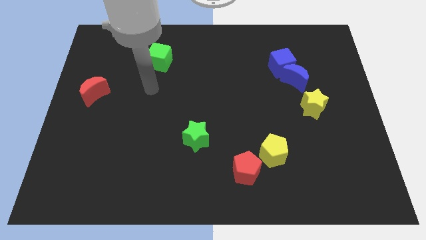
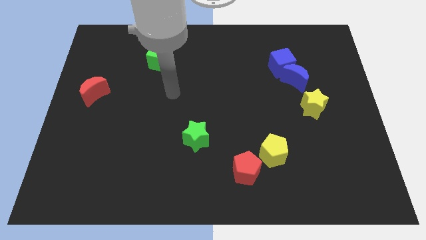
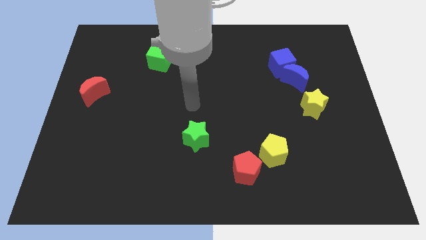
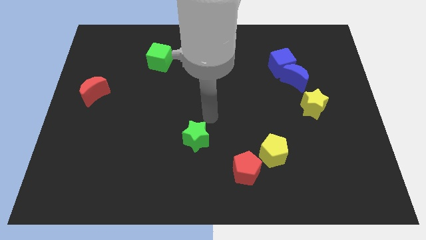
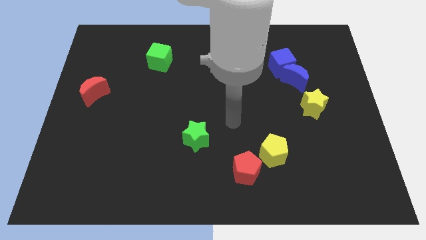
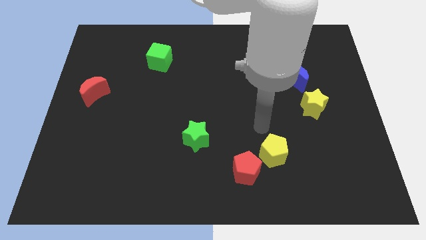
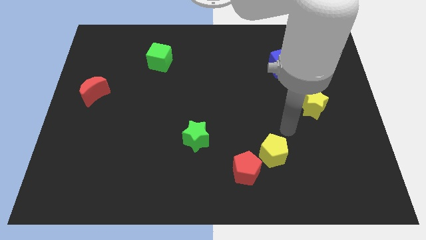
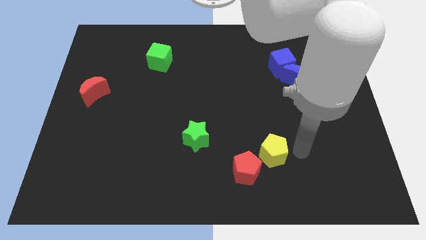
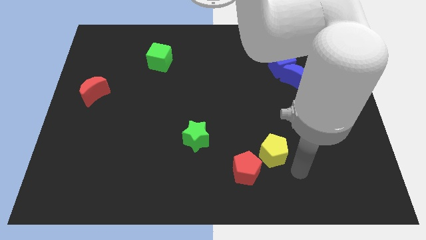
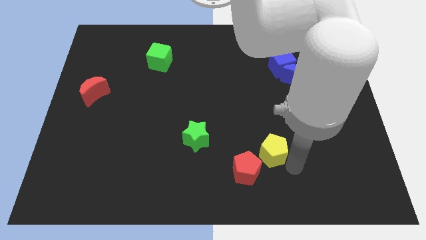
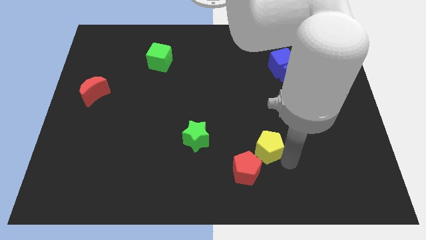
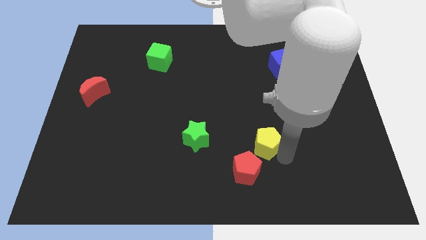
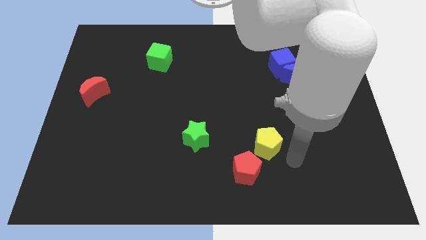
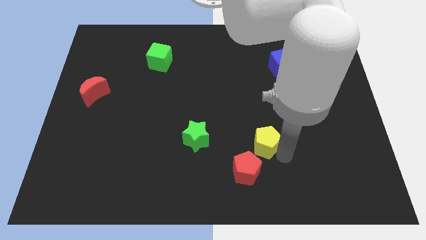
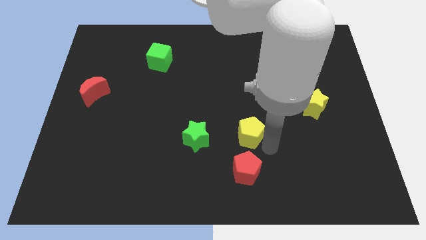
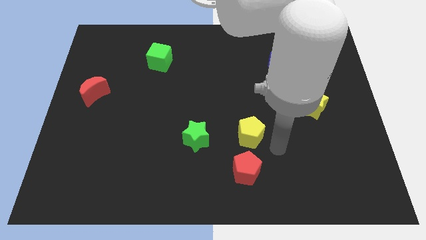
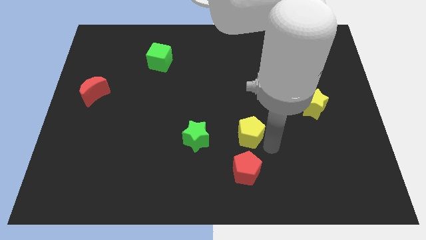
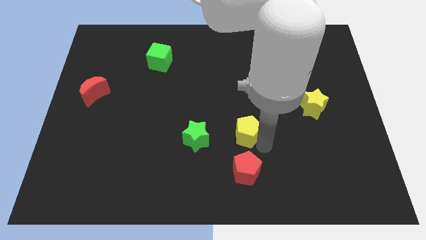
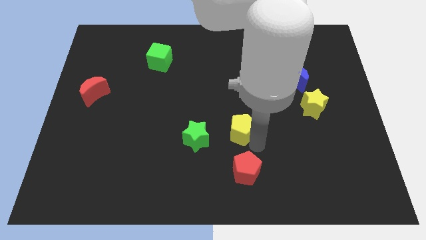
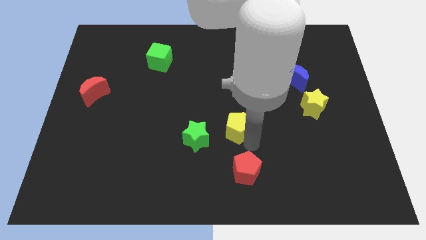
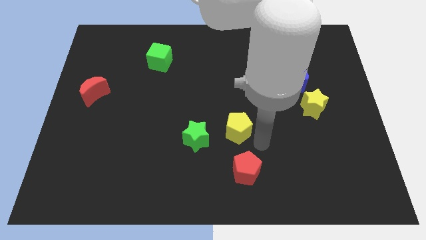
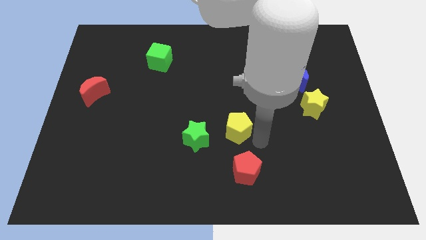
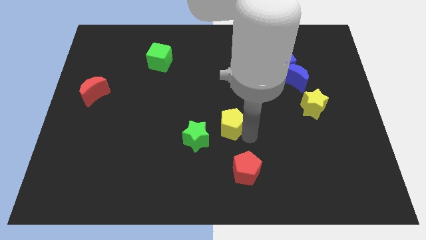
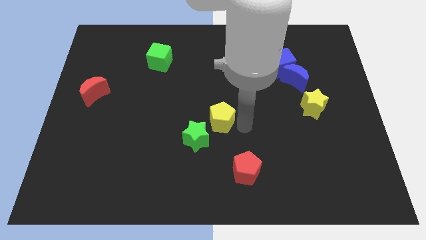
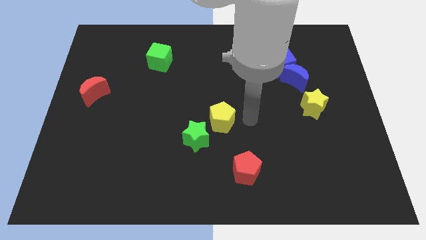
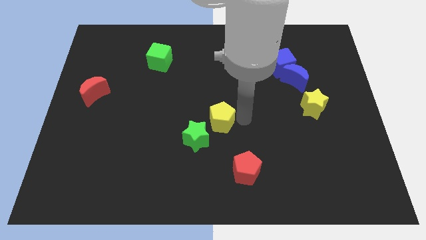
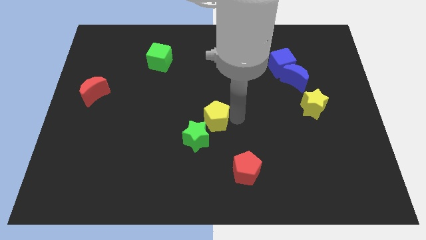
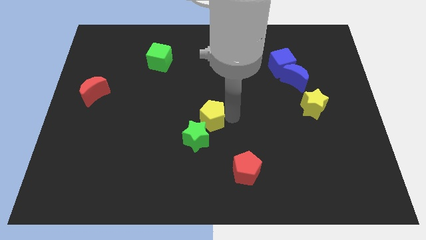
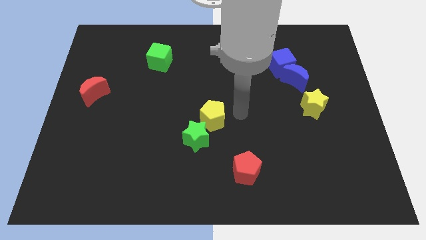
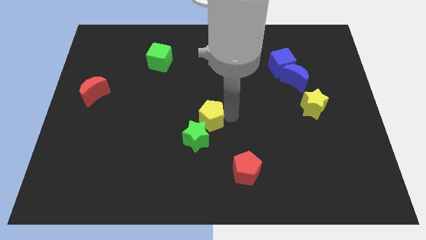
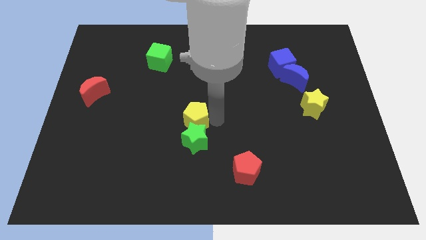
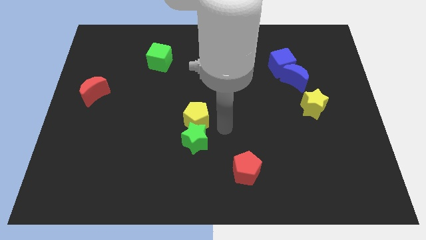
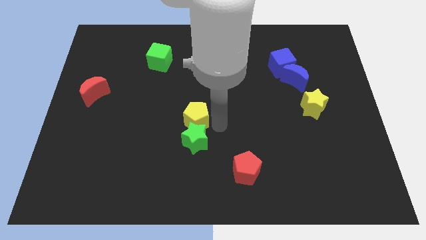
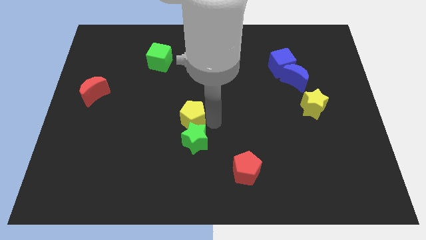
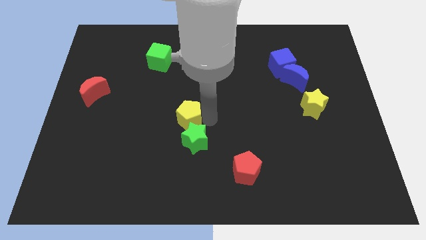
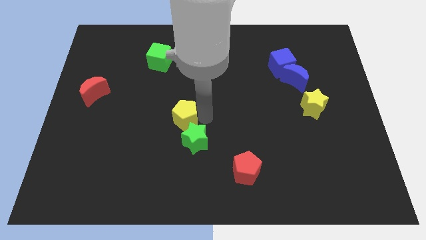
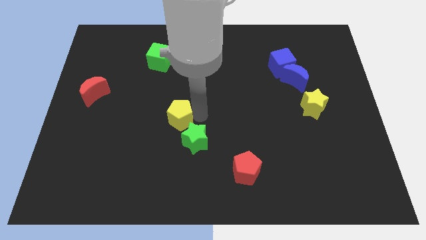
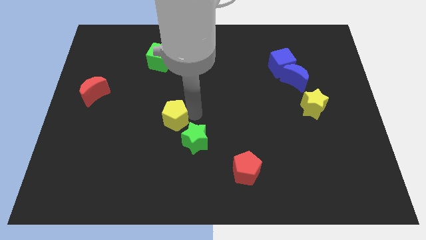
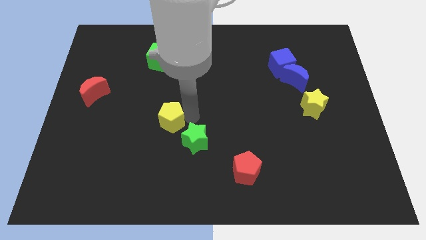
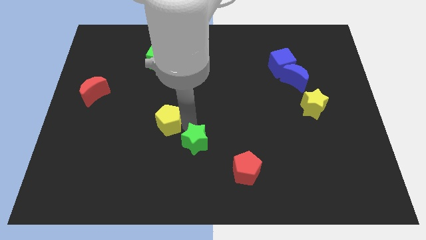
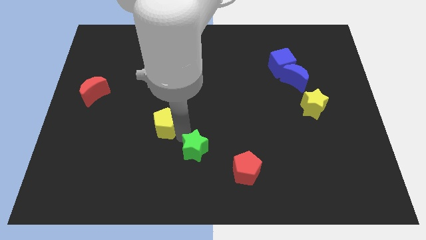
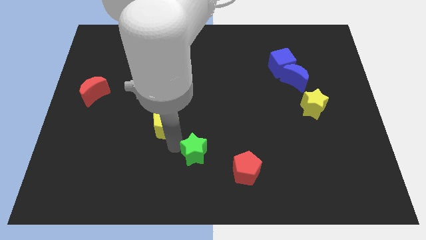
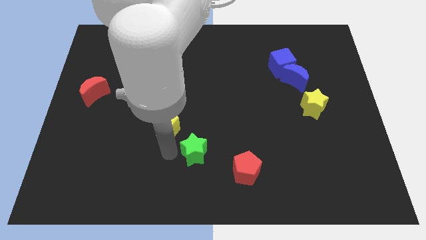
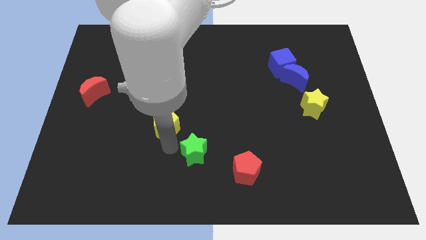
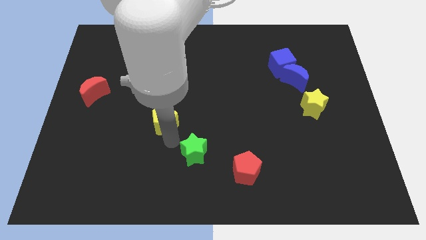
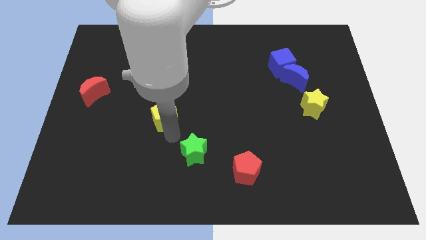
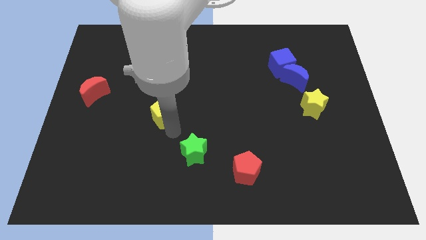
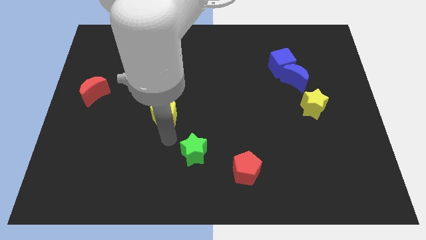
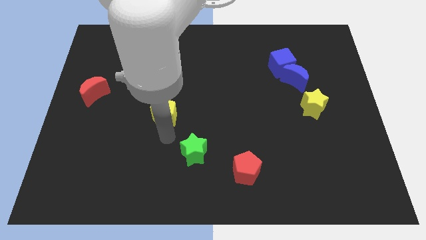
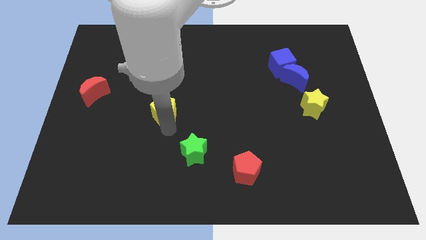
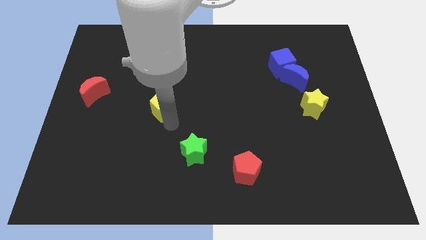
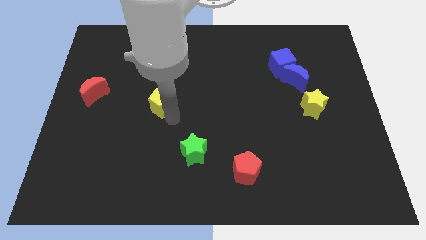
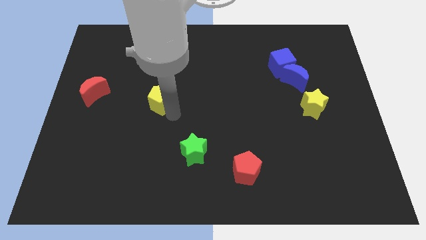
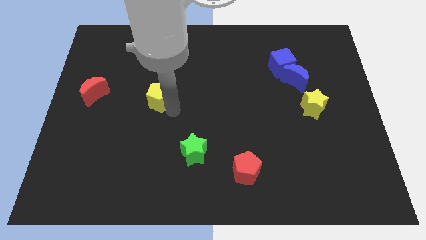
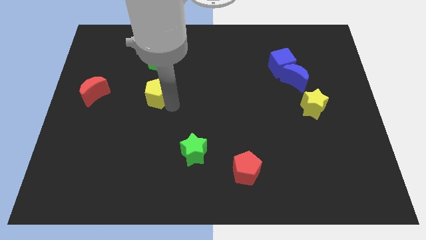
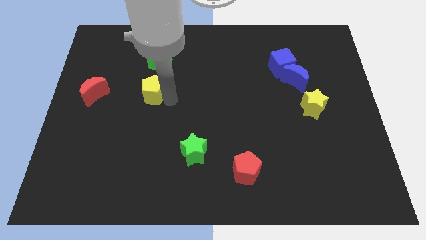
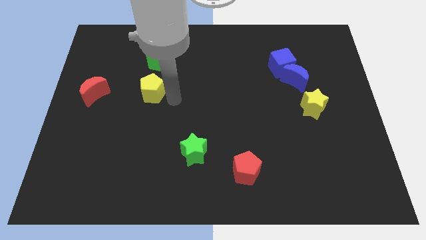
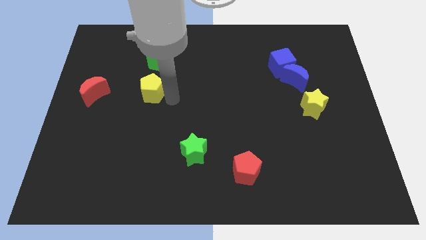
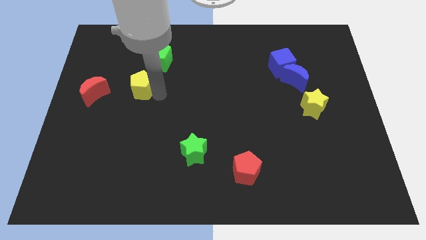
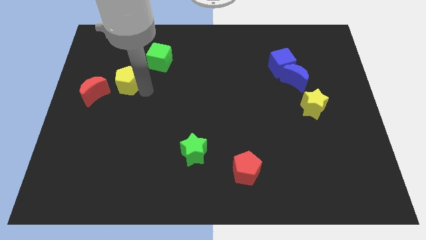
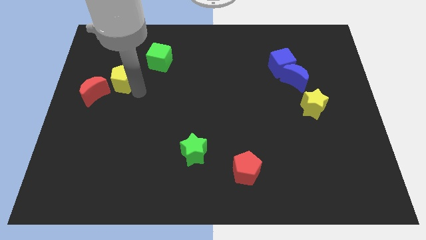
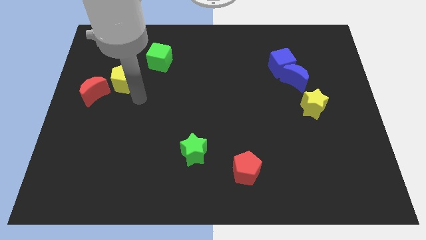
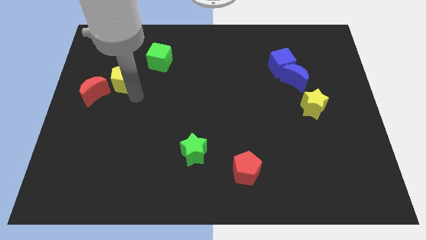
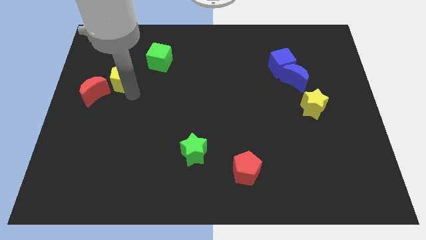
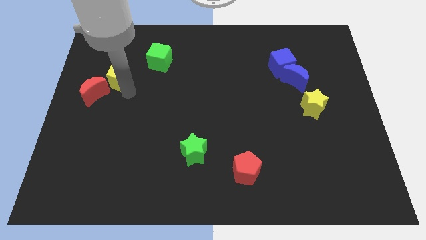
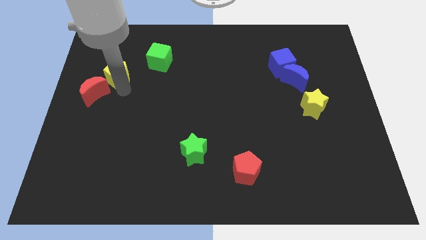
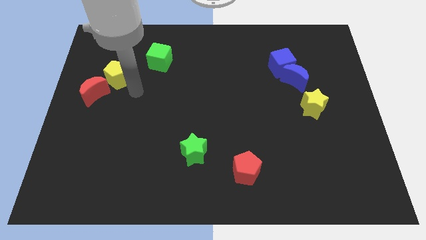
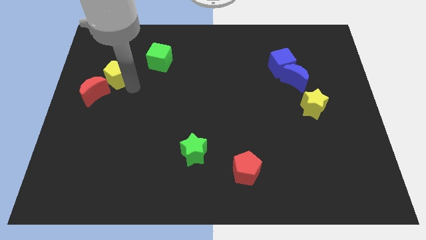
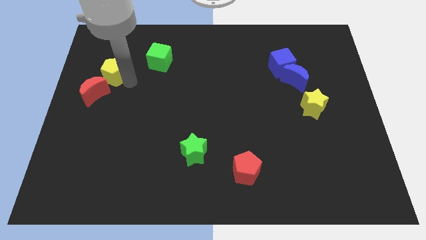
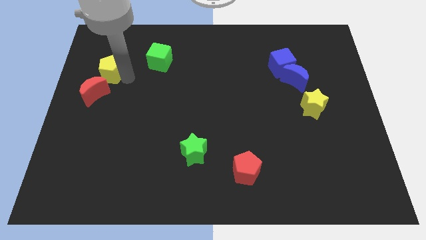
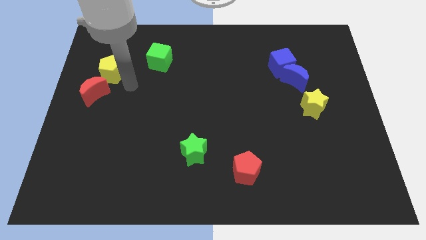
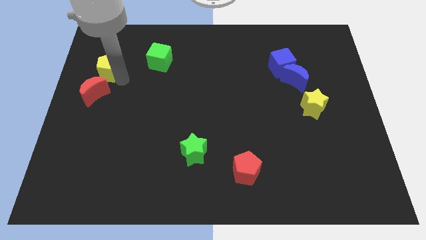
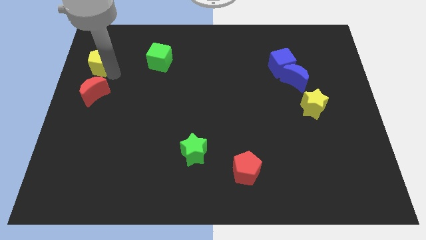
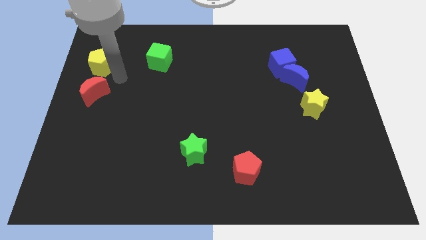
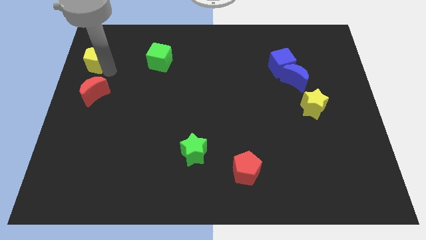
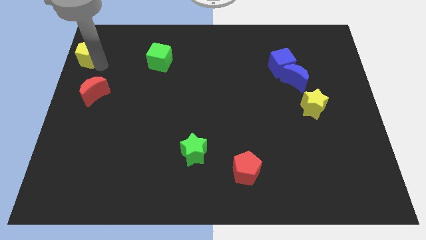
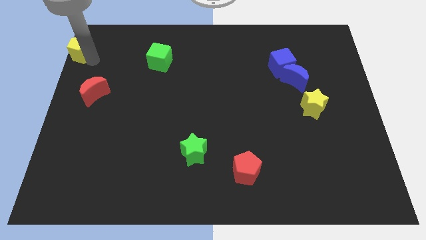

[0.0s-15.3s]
push the yellow pentagon to the top left of the board
